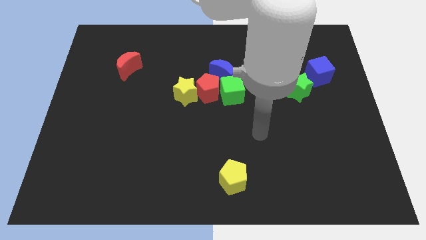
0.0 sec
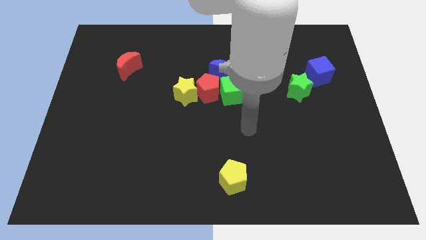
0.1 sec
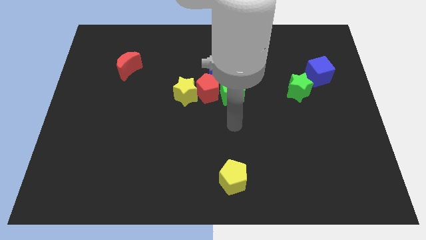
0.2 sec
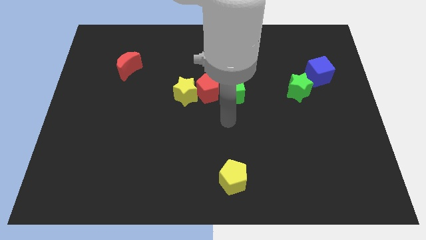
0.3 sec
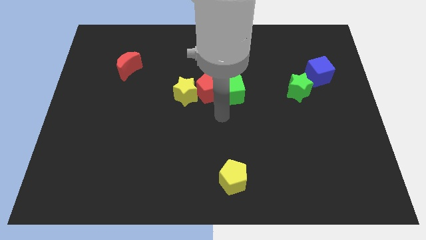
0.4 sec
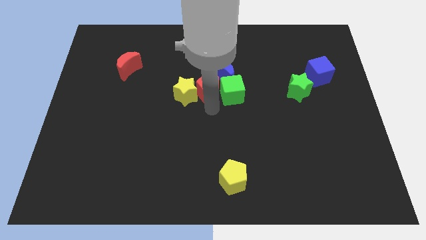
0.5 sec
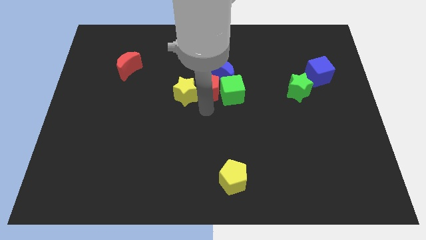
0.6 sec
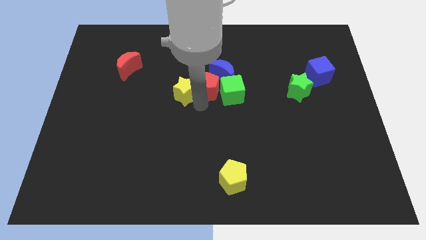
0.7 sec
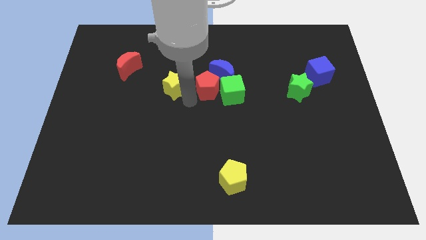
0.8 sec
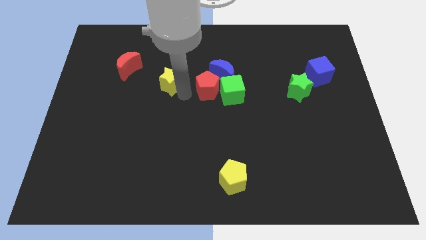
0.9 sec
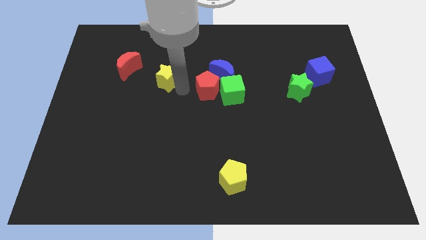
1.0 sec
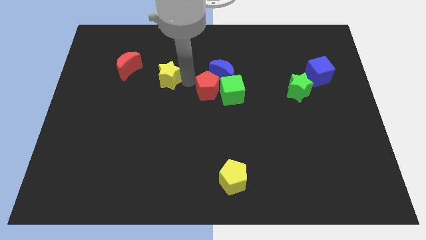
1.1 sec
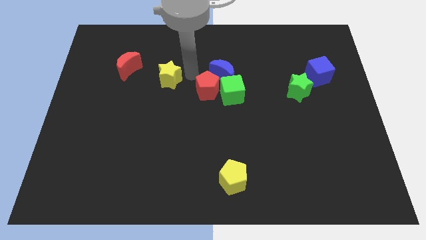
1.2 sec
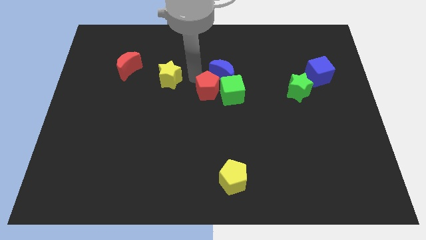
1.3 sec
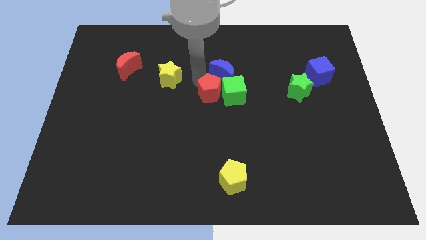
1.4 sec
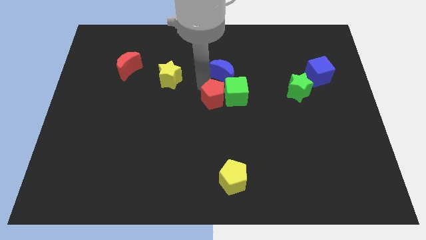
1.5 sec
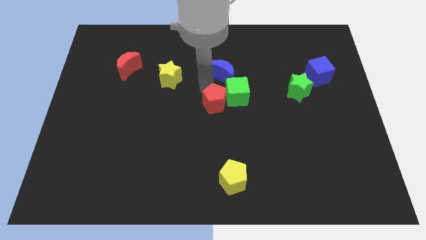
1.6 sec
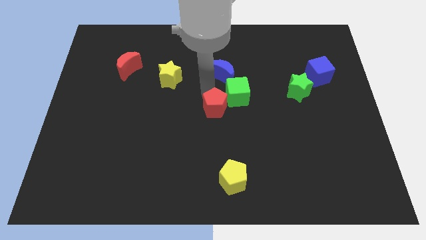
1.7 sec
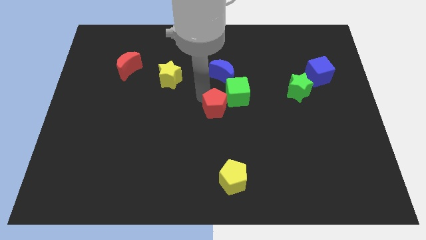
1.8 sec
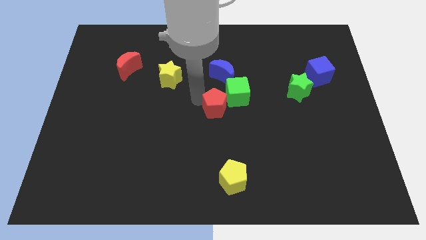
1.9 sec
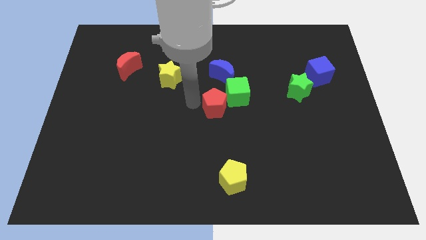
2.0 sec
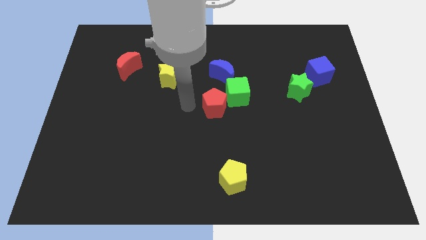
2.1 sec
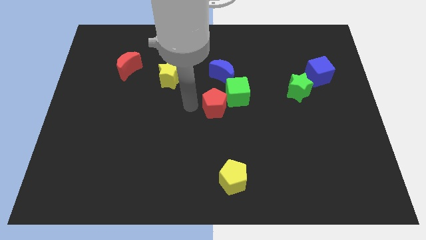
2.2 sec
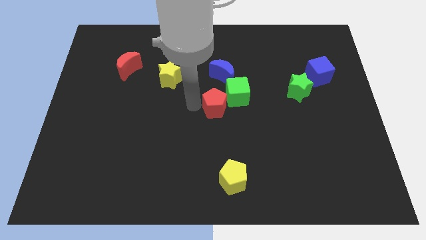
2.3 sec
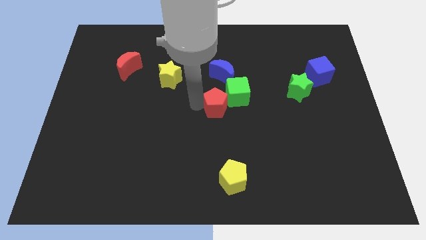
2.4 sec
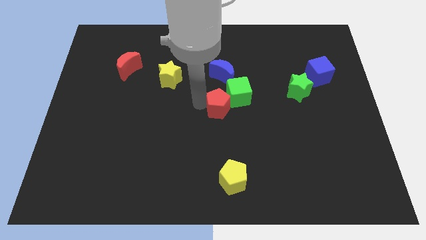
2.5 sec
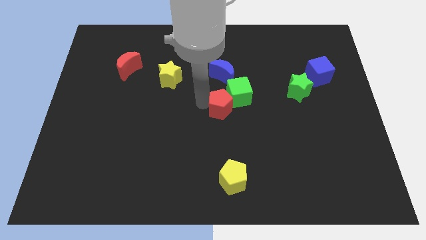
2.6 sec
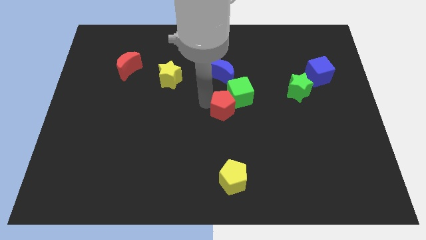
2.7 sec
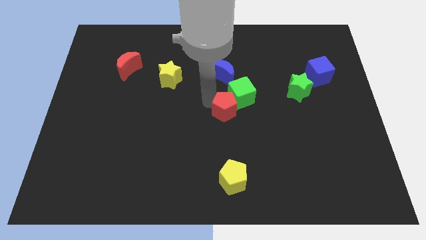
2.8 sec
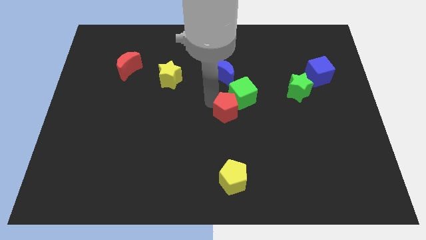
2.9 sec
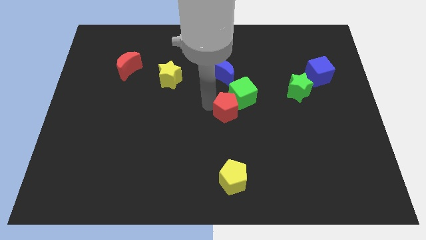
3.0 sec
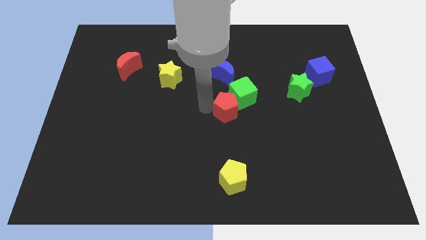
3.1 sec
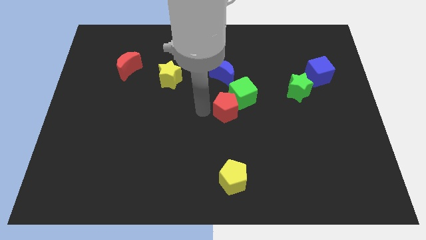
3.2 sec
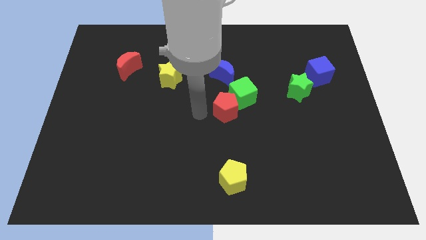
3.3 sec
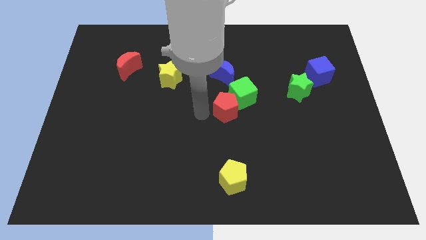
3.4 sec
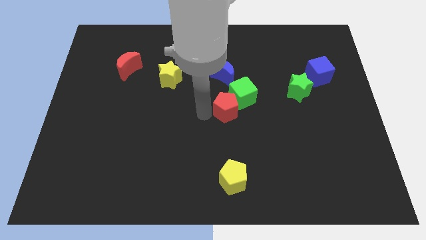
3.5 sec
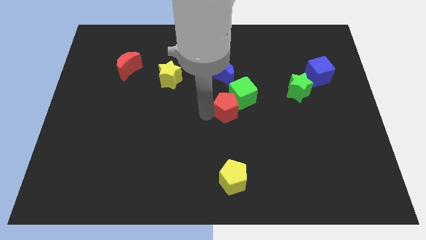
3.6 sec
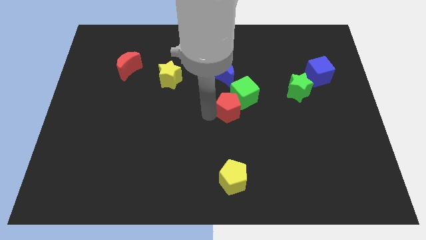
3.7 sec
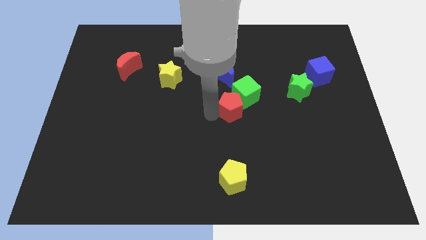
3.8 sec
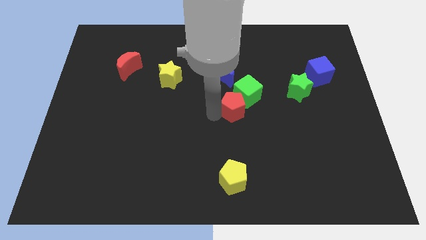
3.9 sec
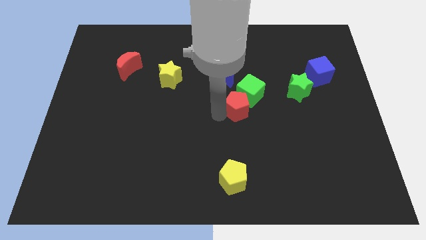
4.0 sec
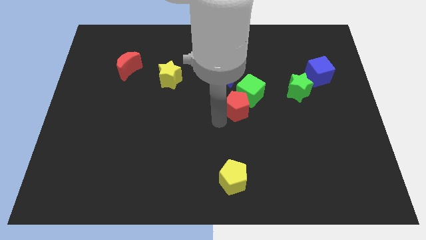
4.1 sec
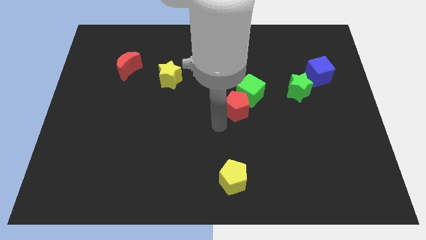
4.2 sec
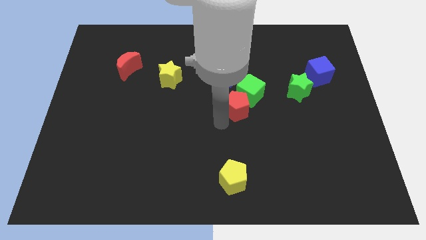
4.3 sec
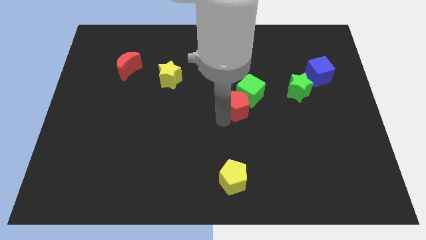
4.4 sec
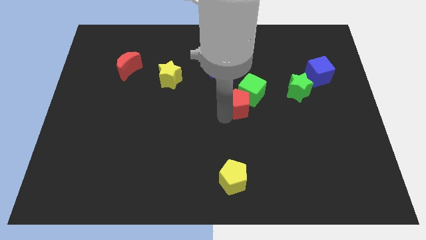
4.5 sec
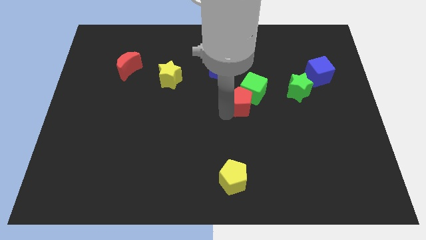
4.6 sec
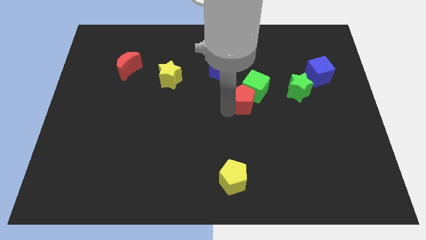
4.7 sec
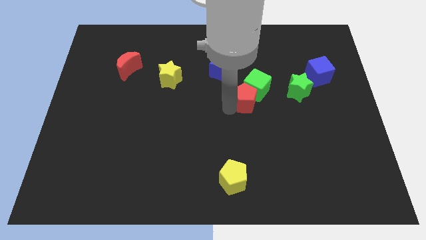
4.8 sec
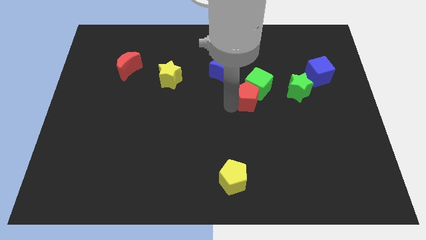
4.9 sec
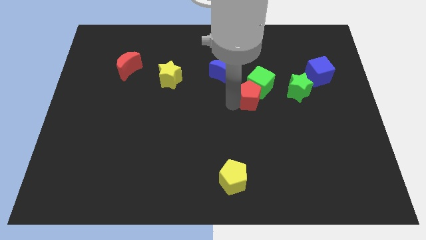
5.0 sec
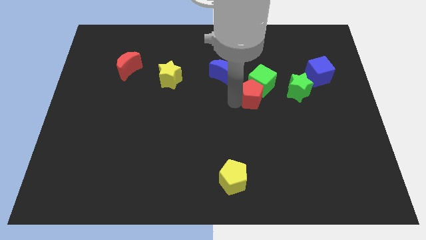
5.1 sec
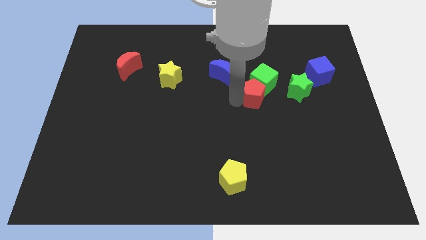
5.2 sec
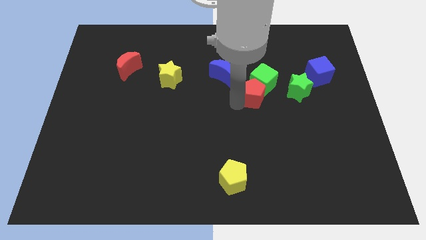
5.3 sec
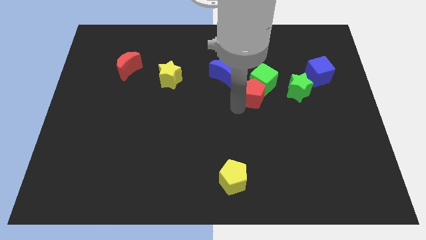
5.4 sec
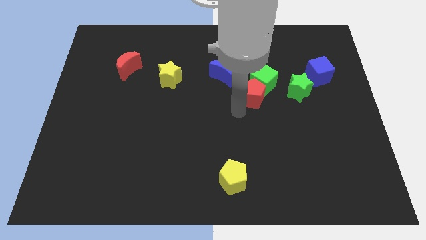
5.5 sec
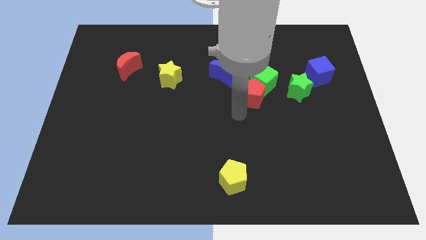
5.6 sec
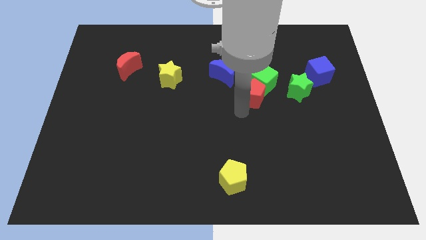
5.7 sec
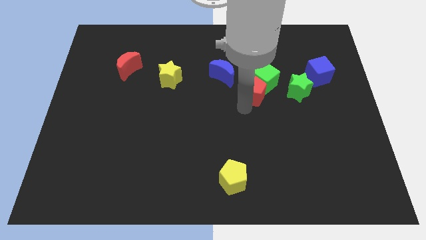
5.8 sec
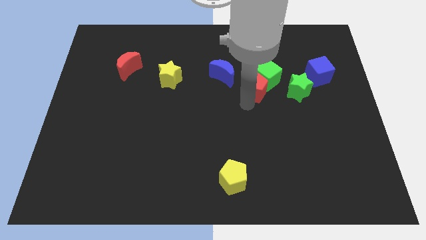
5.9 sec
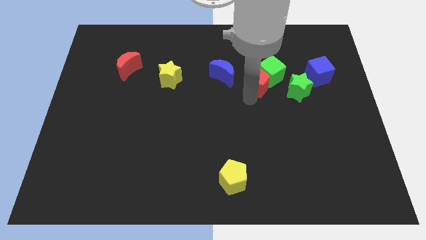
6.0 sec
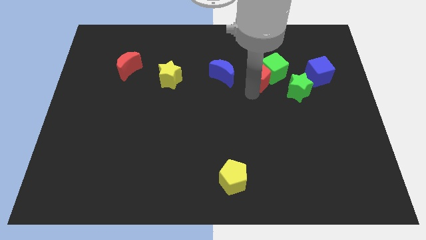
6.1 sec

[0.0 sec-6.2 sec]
push the red pentagon to the top left side of the green star
